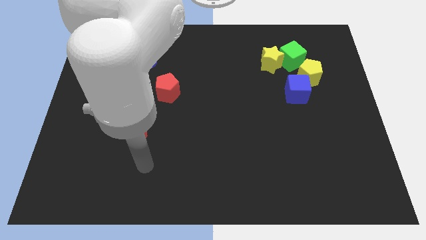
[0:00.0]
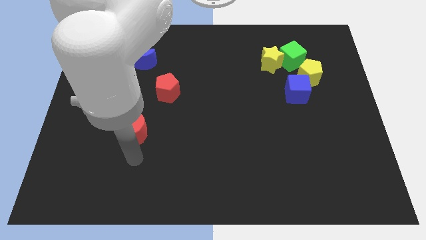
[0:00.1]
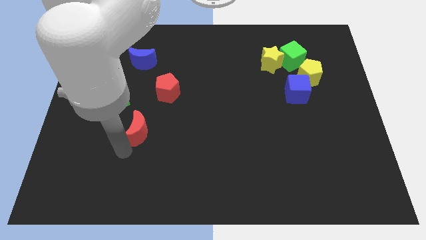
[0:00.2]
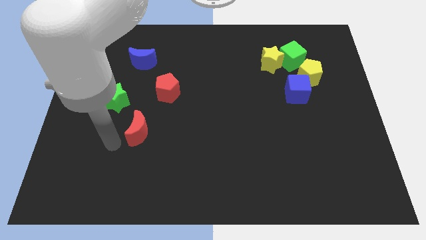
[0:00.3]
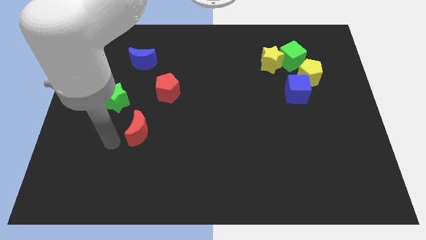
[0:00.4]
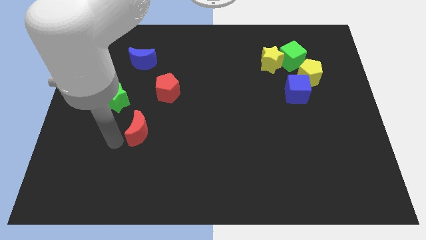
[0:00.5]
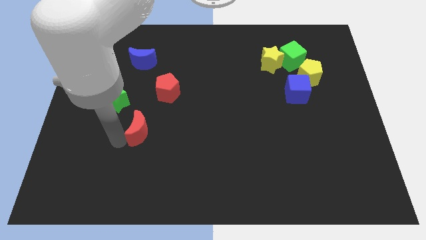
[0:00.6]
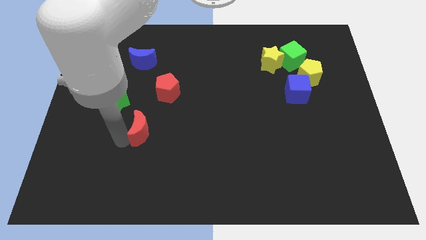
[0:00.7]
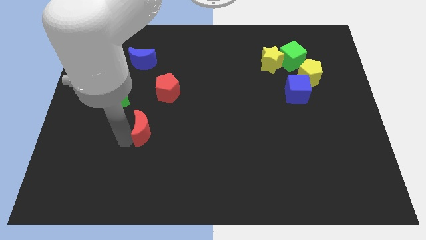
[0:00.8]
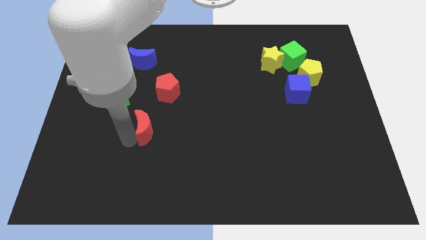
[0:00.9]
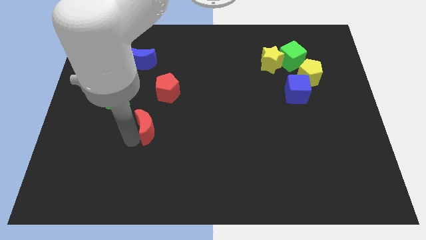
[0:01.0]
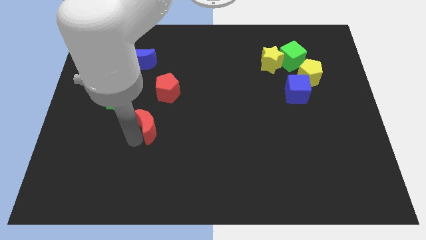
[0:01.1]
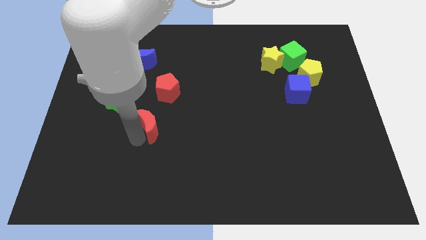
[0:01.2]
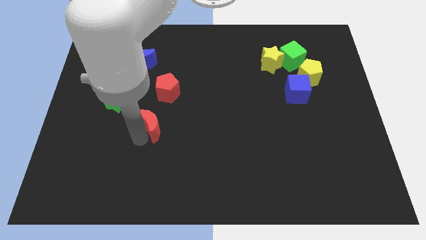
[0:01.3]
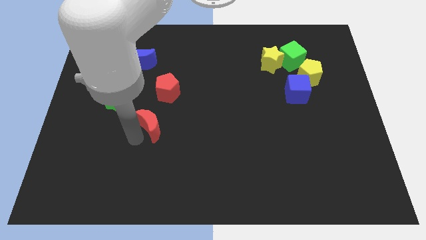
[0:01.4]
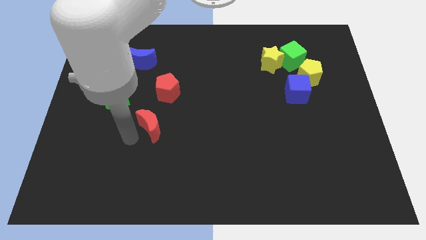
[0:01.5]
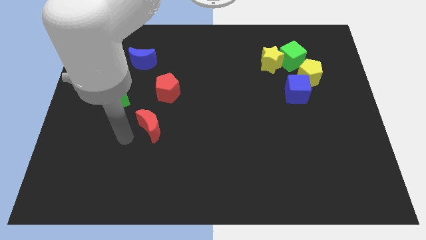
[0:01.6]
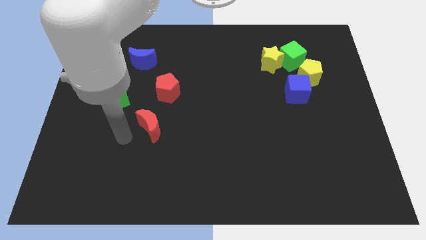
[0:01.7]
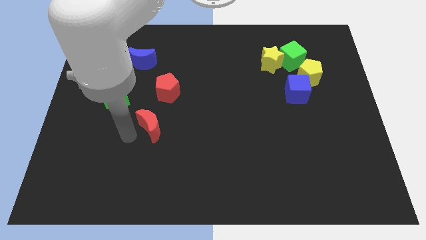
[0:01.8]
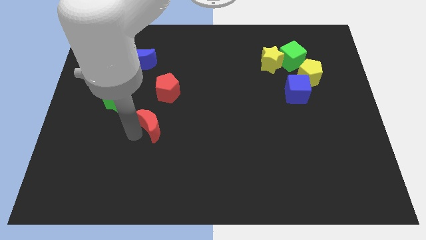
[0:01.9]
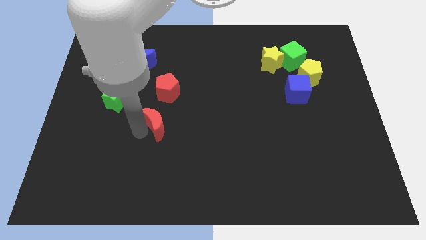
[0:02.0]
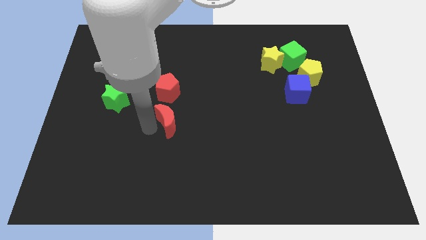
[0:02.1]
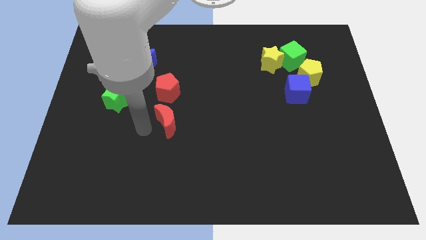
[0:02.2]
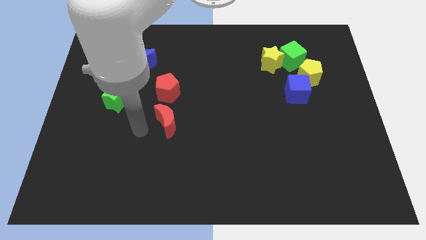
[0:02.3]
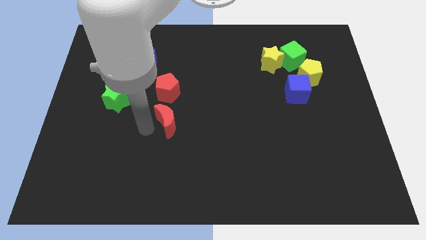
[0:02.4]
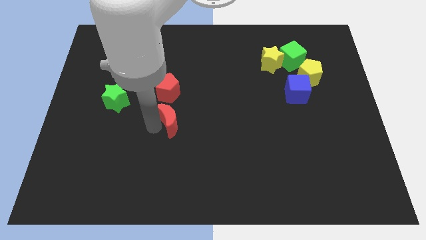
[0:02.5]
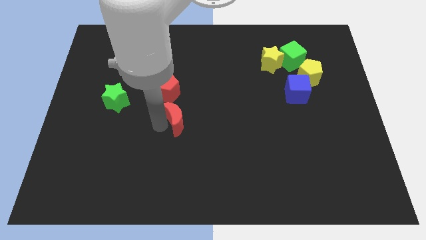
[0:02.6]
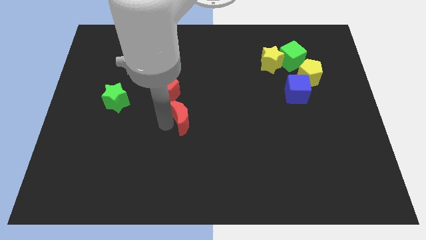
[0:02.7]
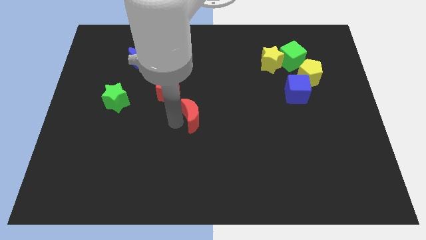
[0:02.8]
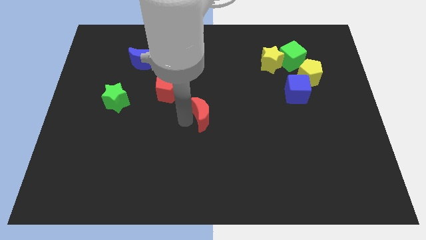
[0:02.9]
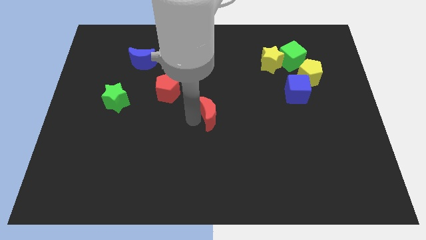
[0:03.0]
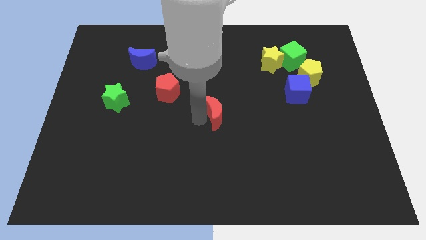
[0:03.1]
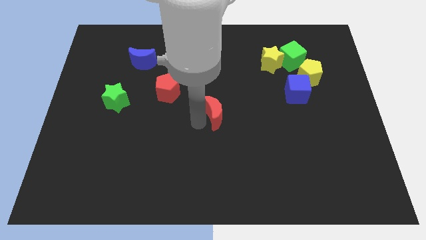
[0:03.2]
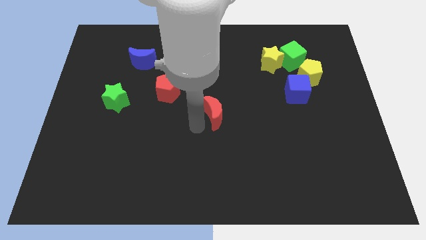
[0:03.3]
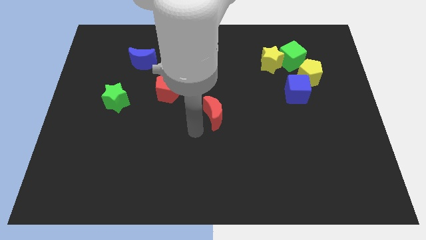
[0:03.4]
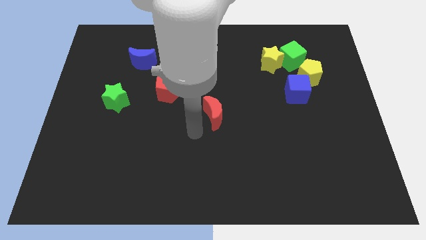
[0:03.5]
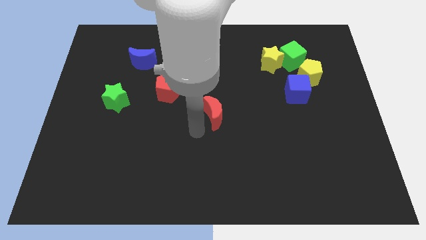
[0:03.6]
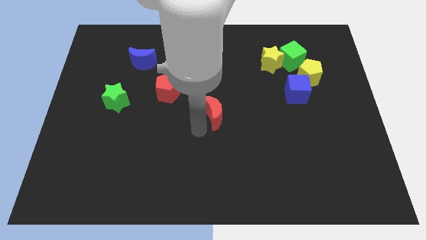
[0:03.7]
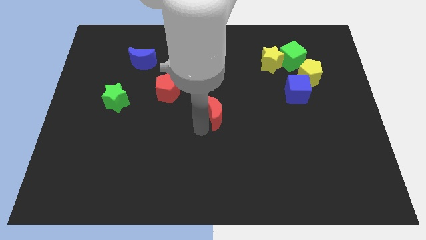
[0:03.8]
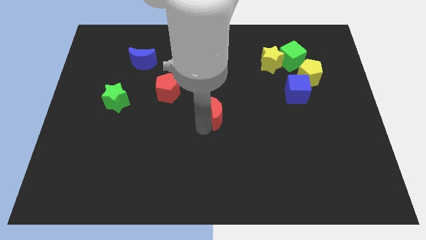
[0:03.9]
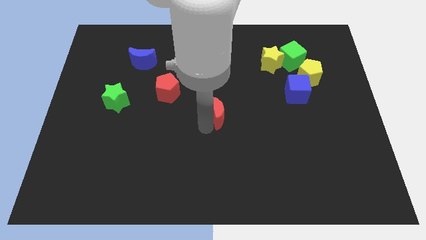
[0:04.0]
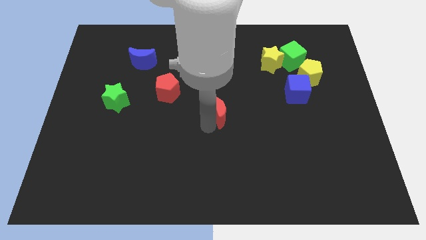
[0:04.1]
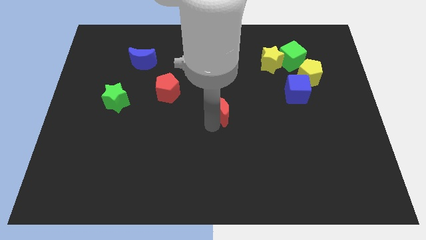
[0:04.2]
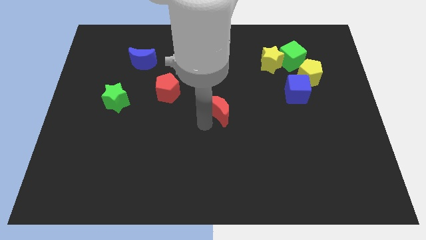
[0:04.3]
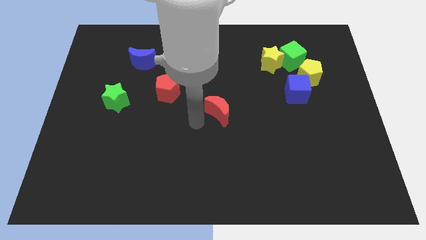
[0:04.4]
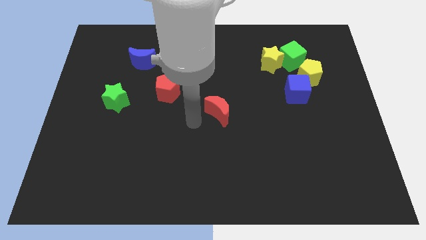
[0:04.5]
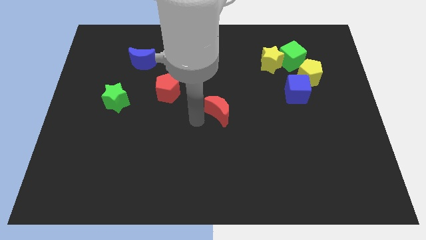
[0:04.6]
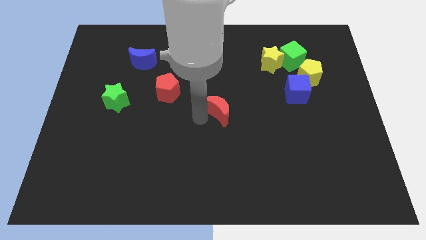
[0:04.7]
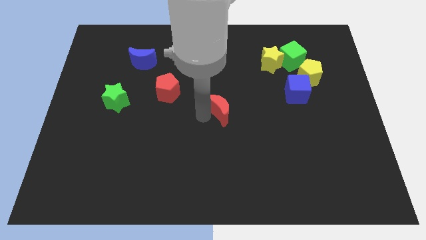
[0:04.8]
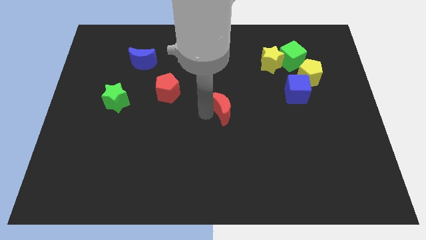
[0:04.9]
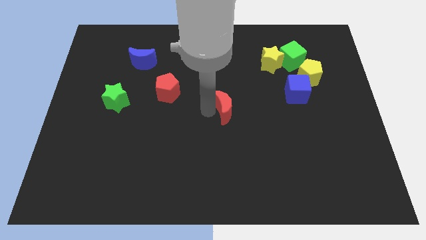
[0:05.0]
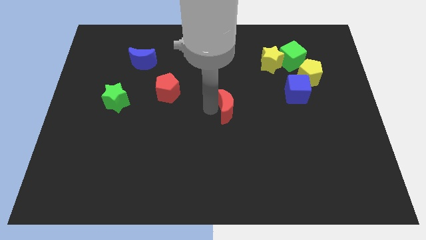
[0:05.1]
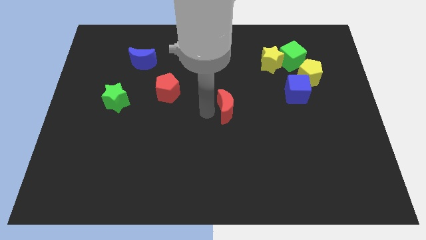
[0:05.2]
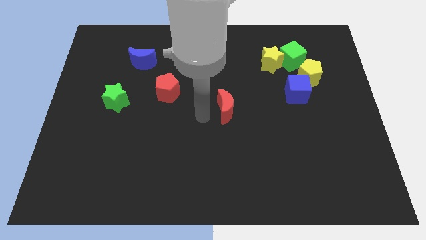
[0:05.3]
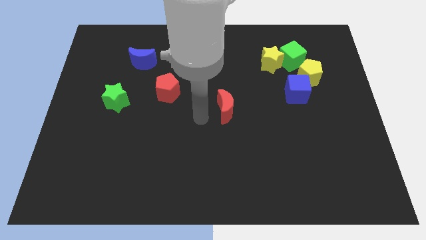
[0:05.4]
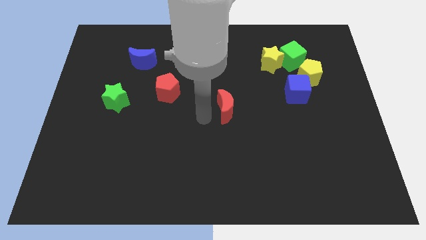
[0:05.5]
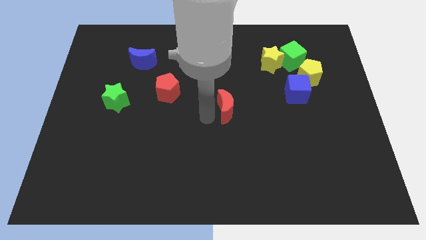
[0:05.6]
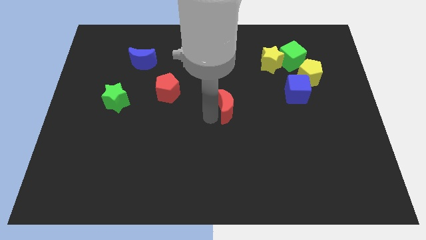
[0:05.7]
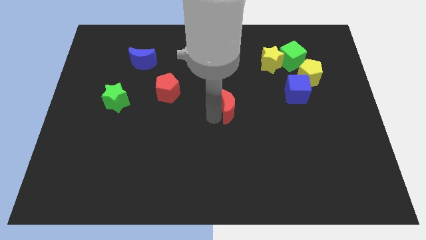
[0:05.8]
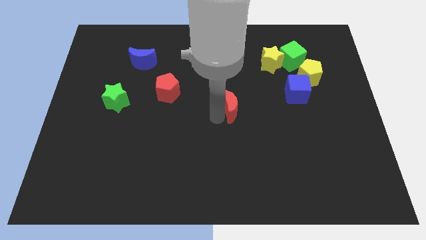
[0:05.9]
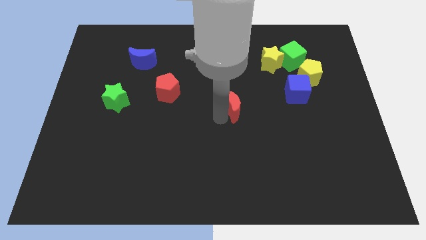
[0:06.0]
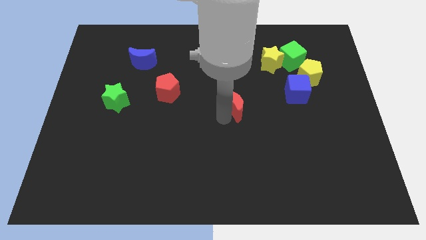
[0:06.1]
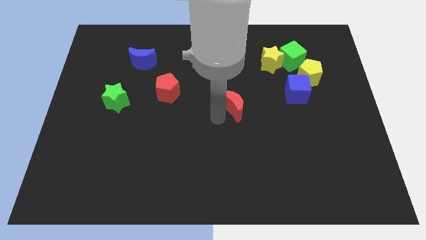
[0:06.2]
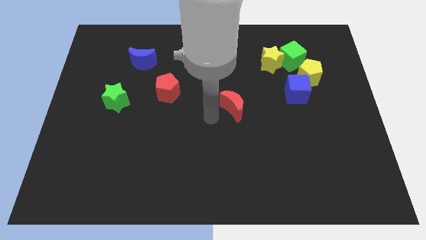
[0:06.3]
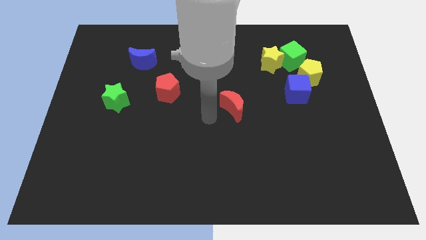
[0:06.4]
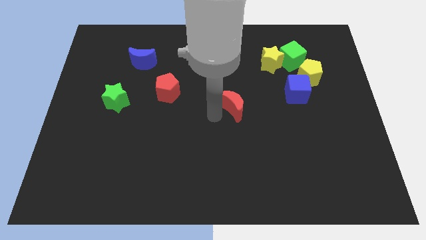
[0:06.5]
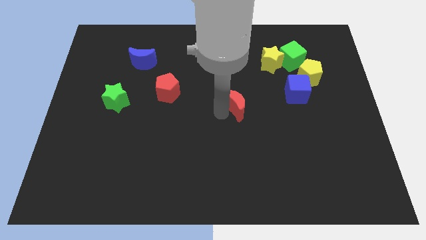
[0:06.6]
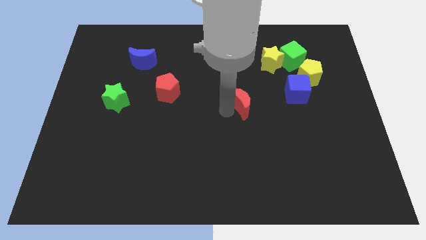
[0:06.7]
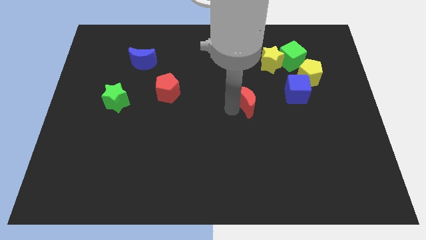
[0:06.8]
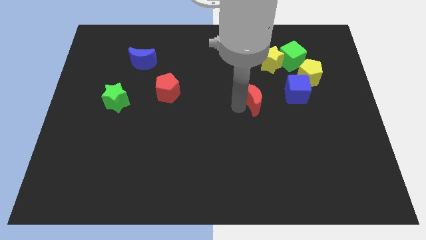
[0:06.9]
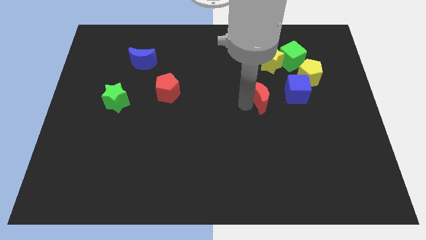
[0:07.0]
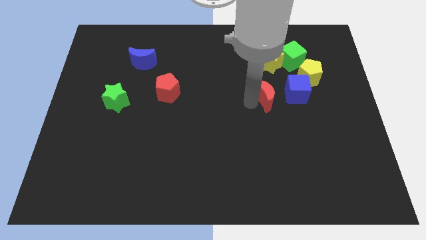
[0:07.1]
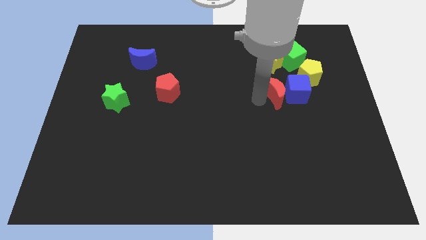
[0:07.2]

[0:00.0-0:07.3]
push the red moon to the blue cube
